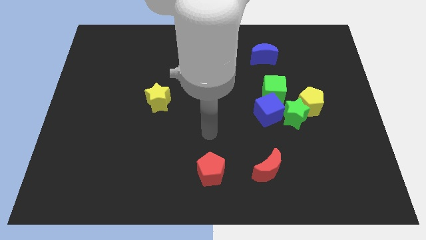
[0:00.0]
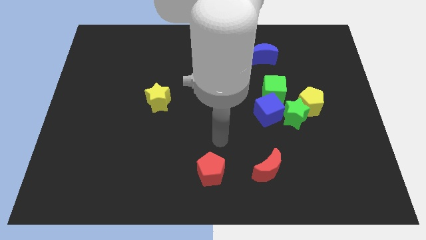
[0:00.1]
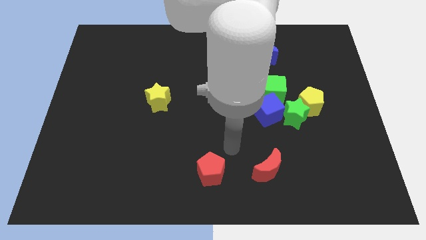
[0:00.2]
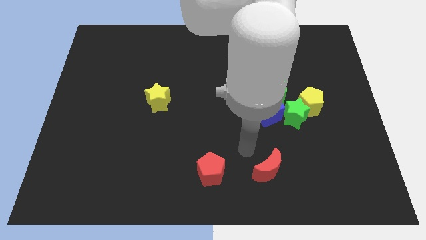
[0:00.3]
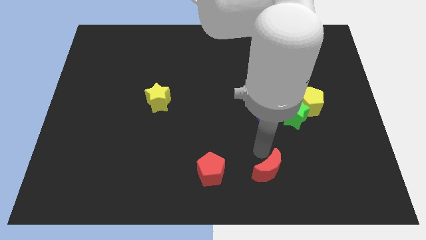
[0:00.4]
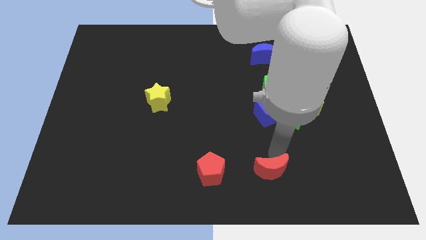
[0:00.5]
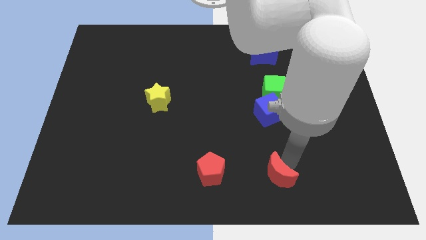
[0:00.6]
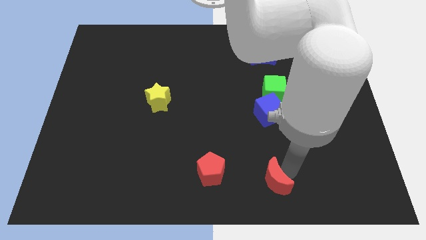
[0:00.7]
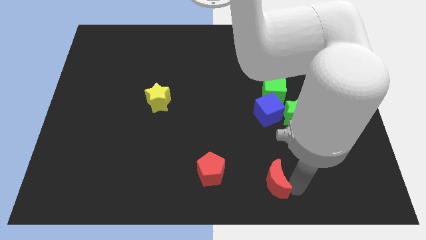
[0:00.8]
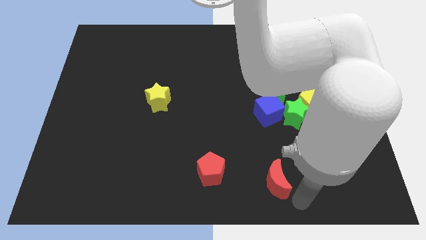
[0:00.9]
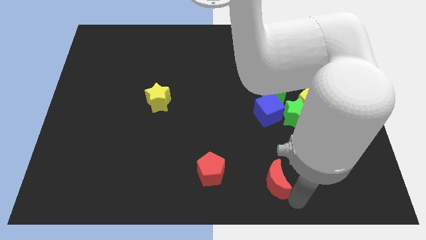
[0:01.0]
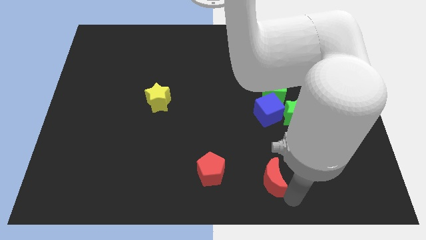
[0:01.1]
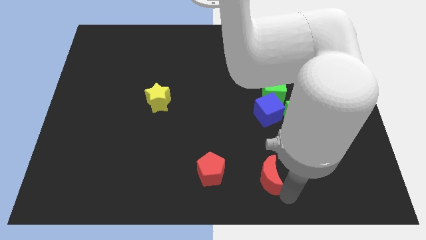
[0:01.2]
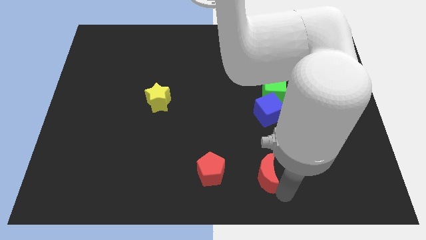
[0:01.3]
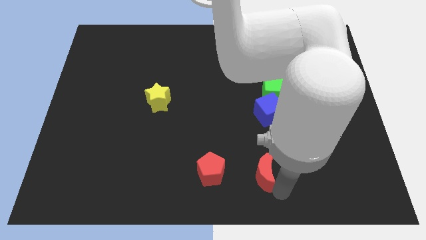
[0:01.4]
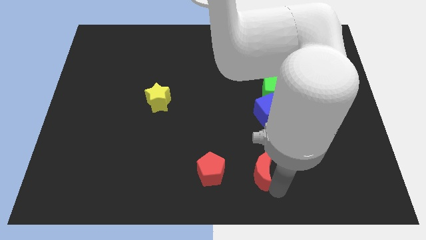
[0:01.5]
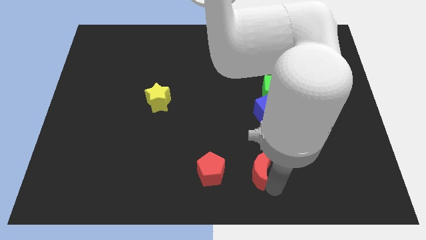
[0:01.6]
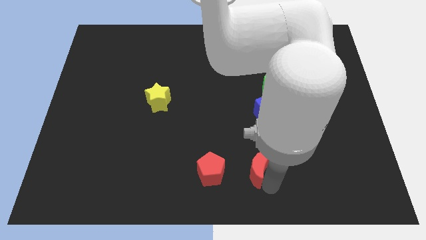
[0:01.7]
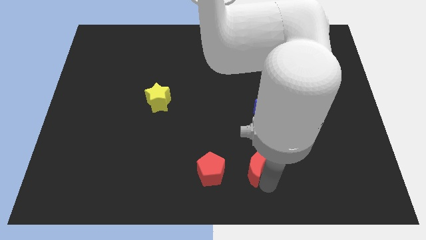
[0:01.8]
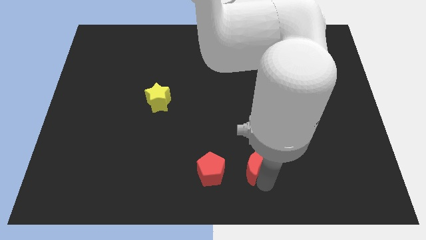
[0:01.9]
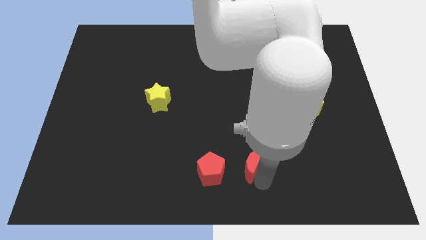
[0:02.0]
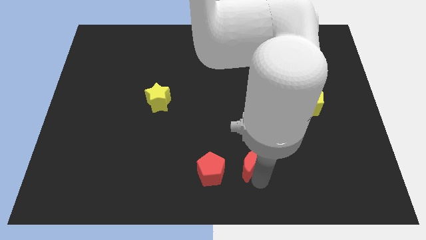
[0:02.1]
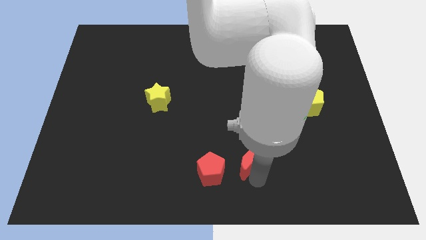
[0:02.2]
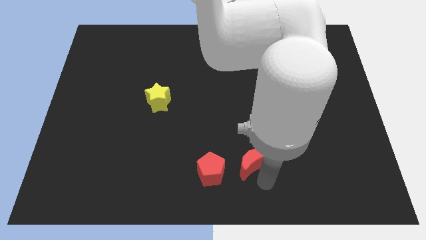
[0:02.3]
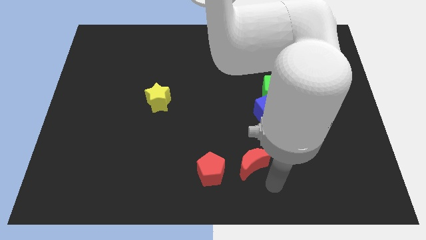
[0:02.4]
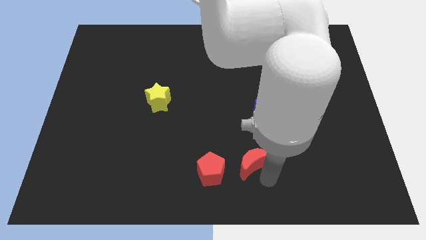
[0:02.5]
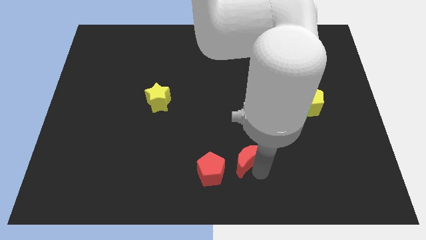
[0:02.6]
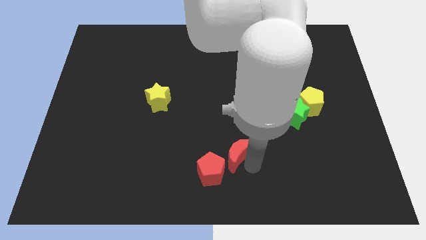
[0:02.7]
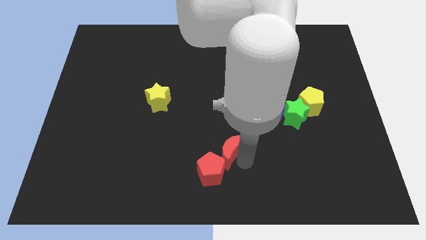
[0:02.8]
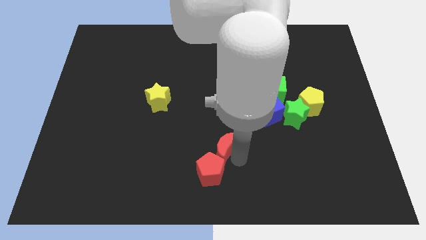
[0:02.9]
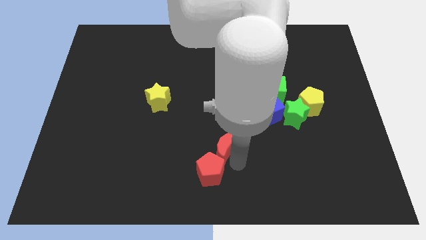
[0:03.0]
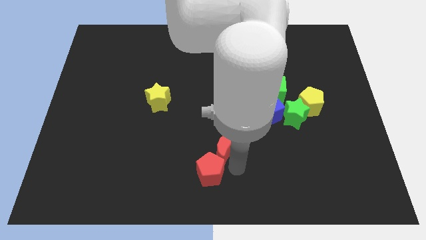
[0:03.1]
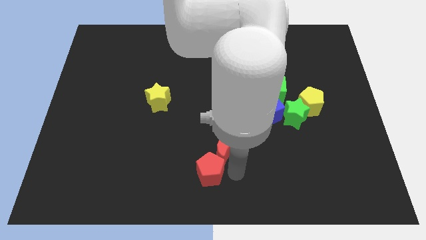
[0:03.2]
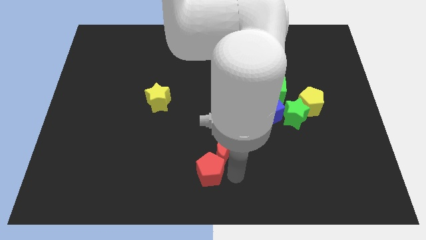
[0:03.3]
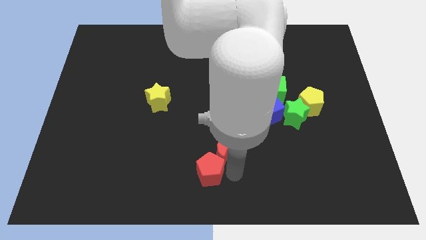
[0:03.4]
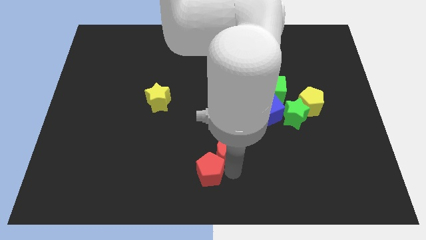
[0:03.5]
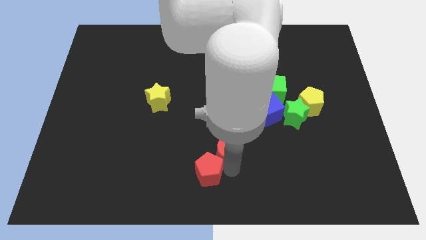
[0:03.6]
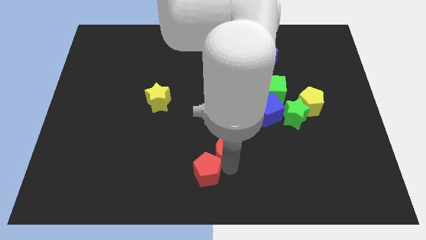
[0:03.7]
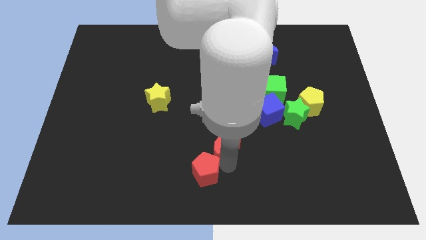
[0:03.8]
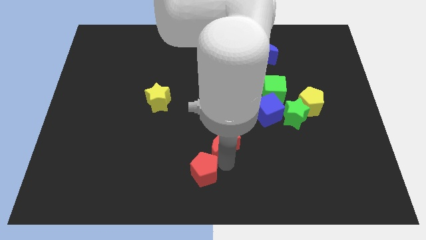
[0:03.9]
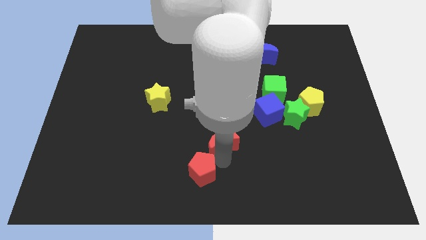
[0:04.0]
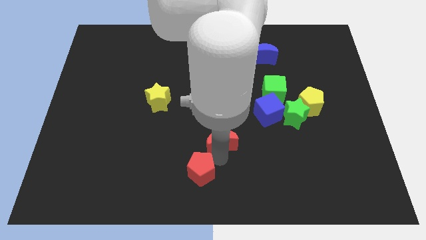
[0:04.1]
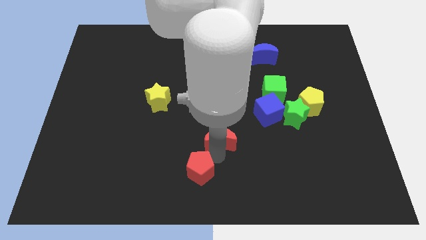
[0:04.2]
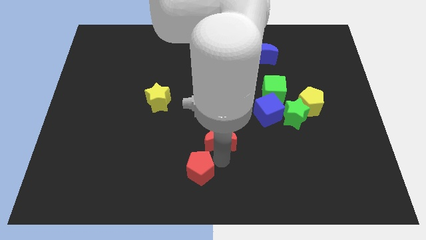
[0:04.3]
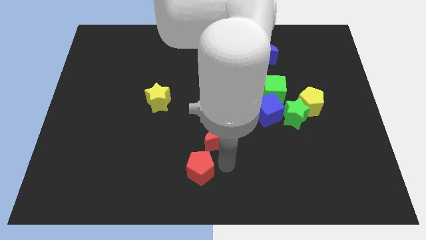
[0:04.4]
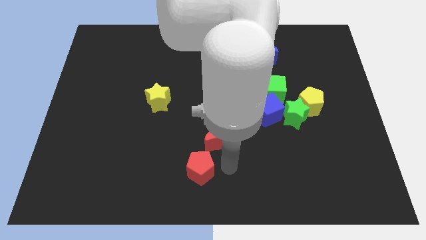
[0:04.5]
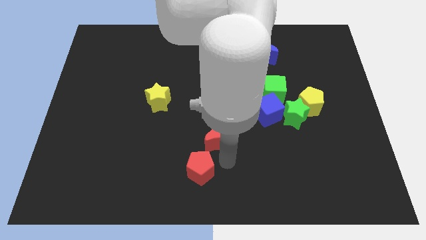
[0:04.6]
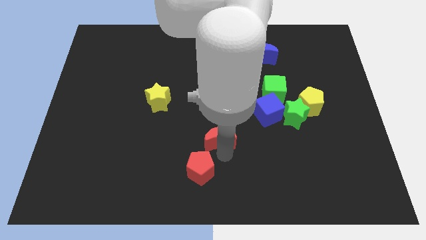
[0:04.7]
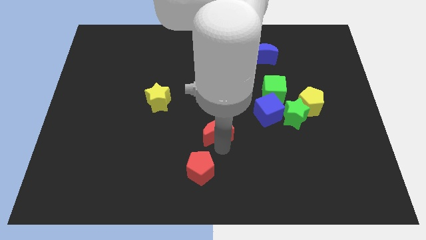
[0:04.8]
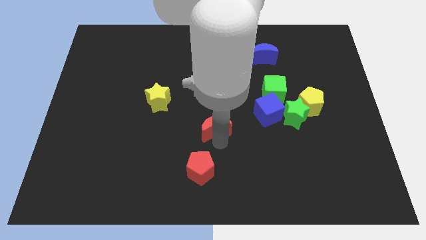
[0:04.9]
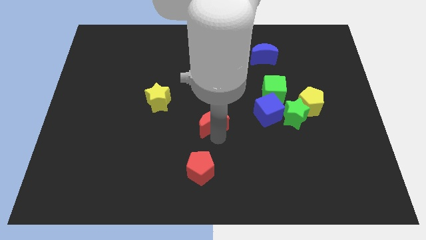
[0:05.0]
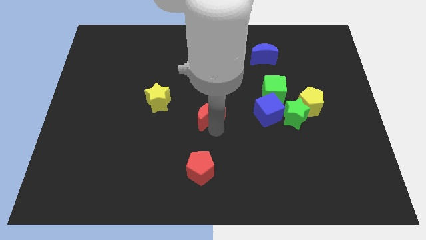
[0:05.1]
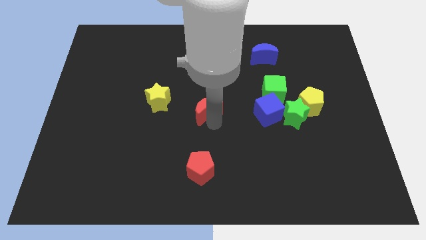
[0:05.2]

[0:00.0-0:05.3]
move the red moon up and to the left diagonally

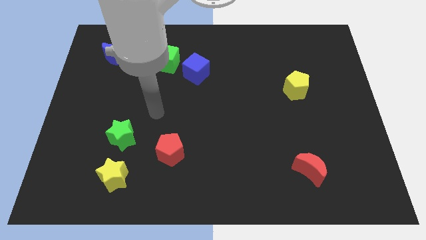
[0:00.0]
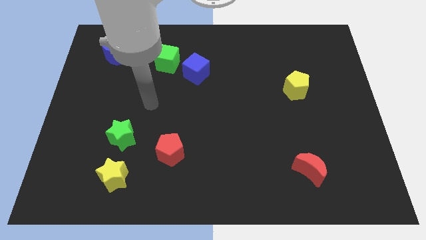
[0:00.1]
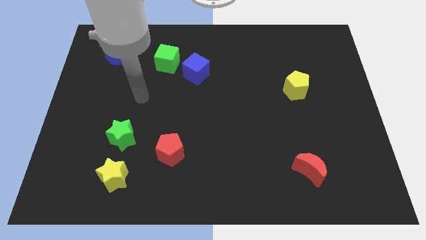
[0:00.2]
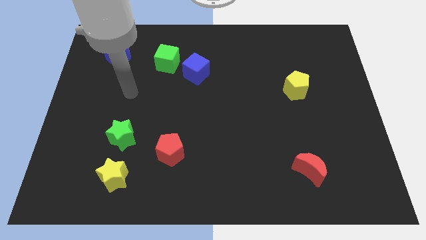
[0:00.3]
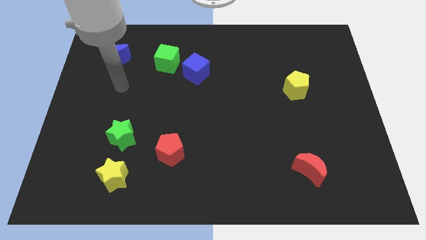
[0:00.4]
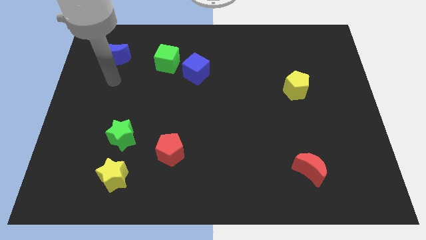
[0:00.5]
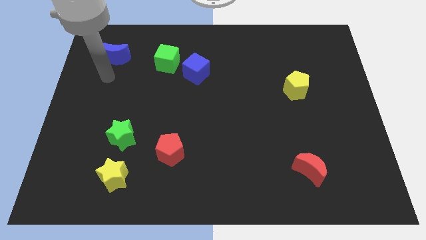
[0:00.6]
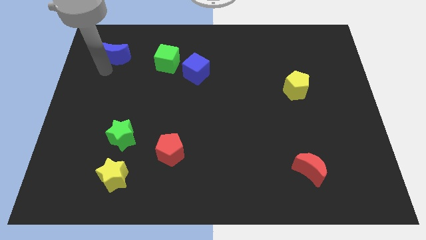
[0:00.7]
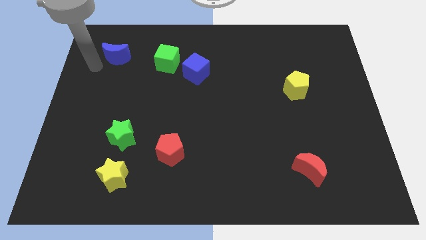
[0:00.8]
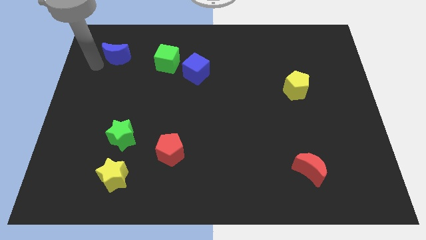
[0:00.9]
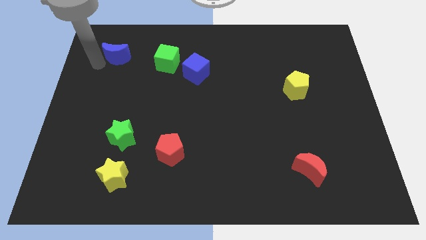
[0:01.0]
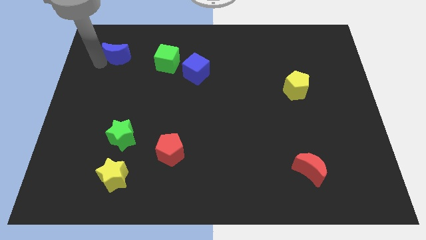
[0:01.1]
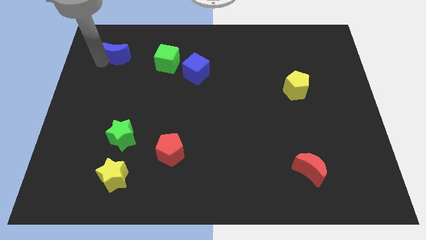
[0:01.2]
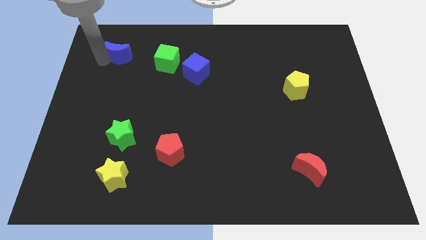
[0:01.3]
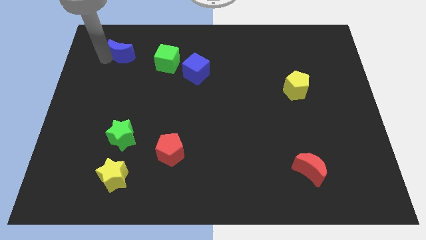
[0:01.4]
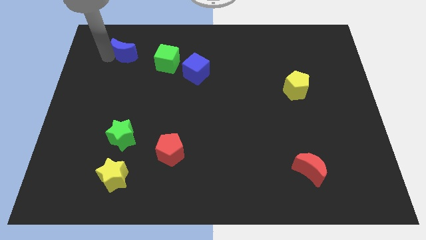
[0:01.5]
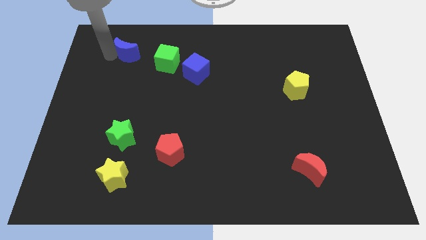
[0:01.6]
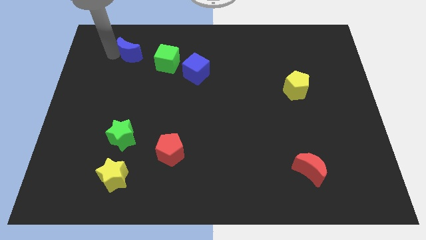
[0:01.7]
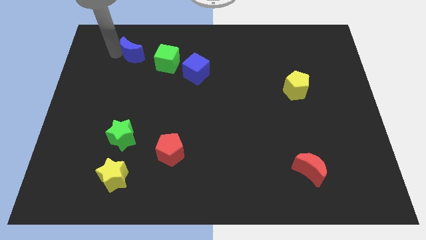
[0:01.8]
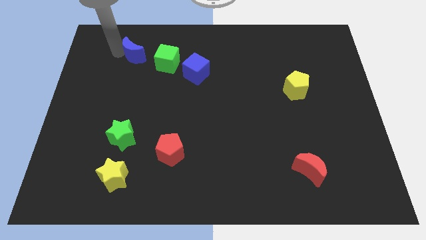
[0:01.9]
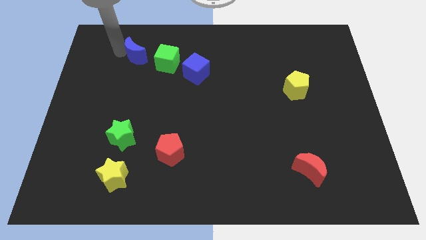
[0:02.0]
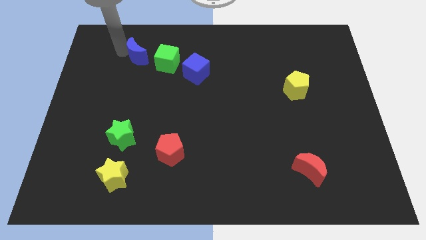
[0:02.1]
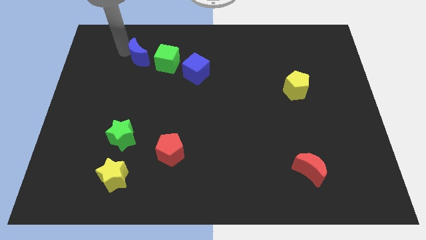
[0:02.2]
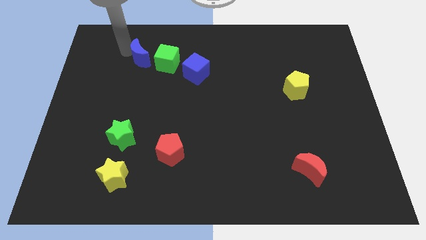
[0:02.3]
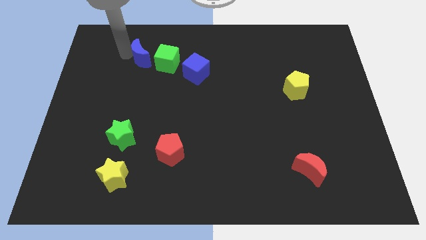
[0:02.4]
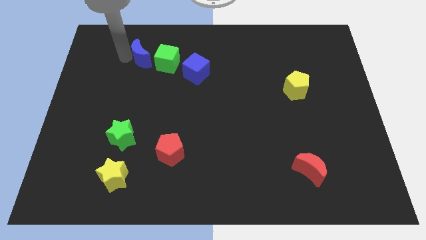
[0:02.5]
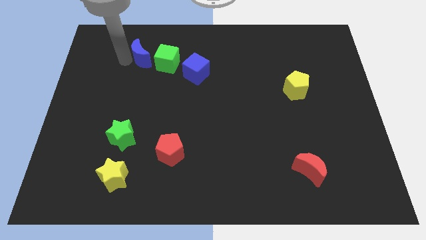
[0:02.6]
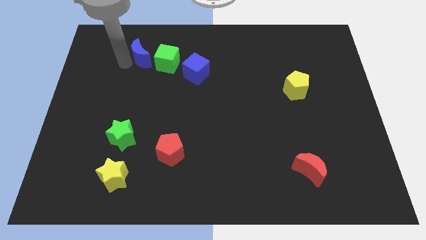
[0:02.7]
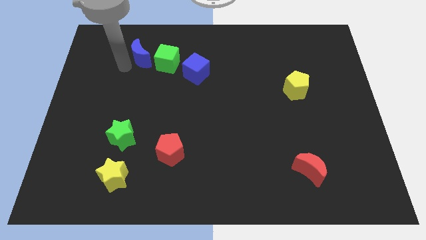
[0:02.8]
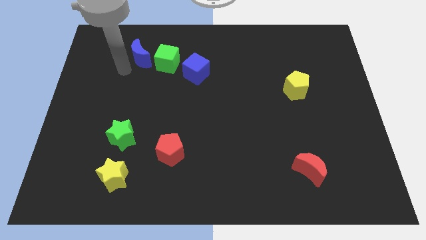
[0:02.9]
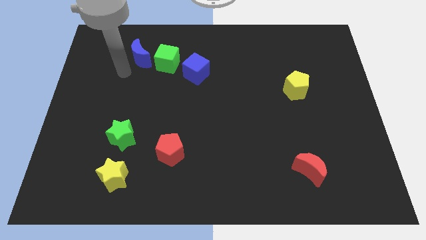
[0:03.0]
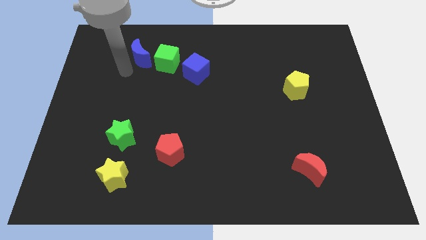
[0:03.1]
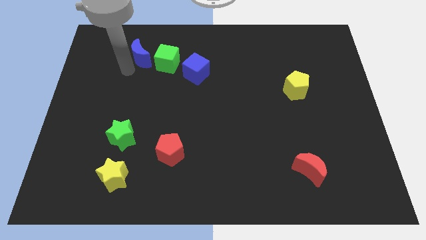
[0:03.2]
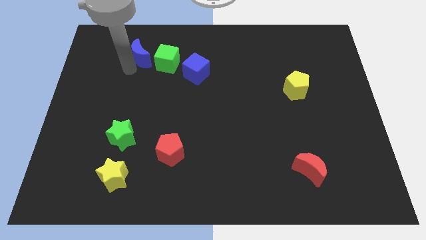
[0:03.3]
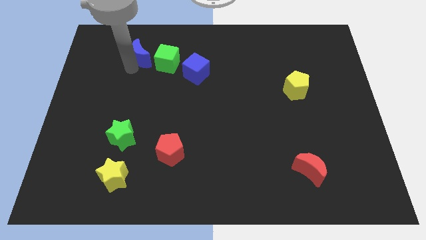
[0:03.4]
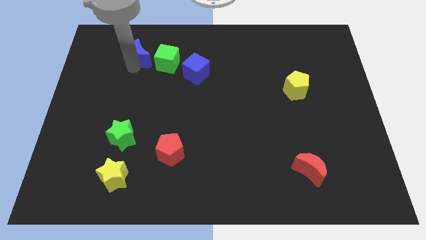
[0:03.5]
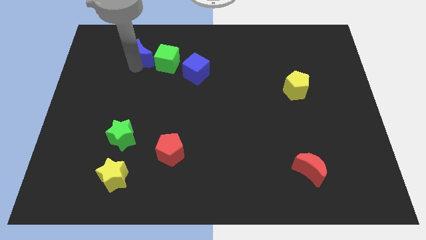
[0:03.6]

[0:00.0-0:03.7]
slide the blue moon to the right a bit
